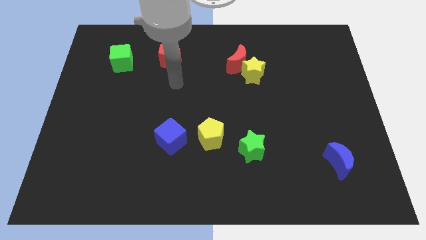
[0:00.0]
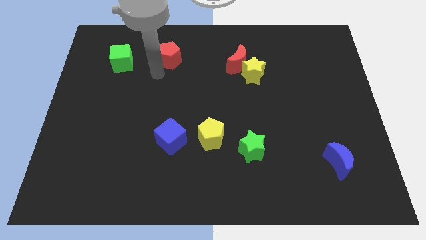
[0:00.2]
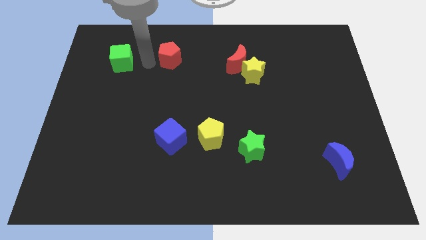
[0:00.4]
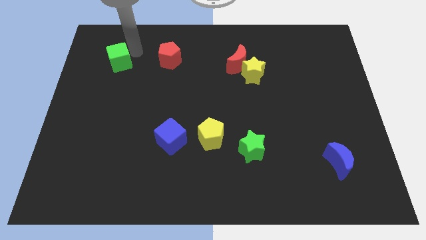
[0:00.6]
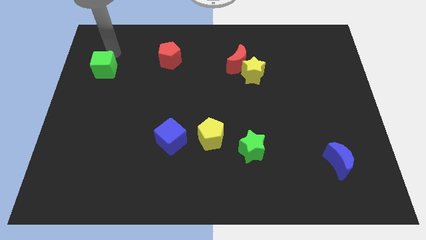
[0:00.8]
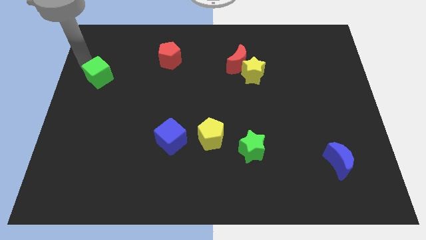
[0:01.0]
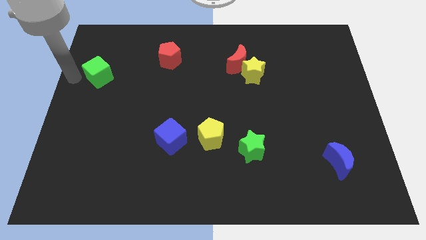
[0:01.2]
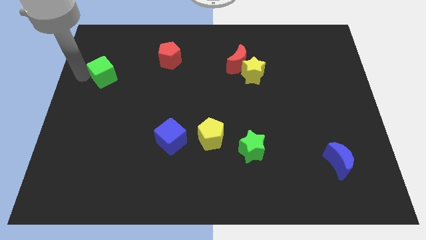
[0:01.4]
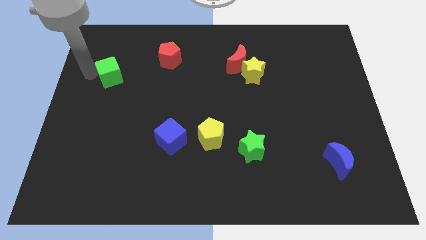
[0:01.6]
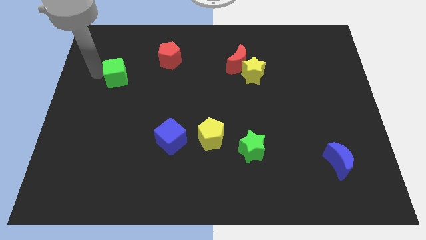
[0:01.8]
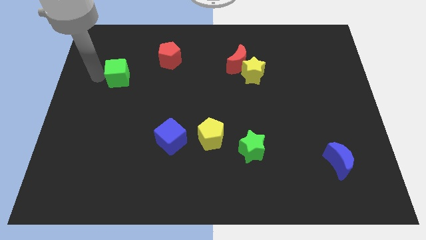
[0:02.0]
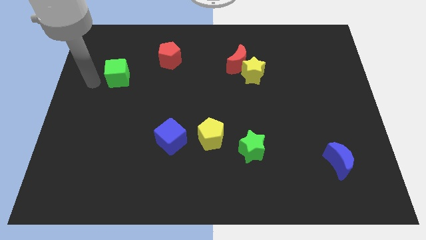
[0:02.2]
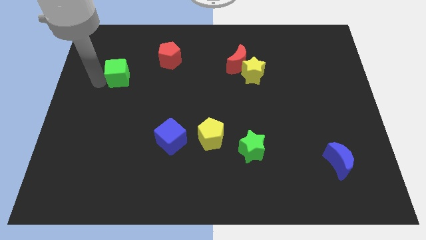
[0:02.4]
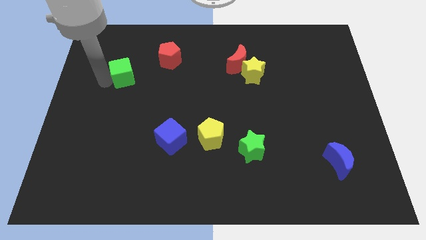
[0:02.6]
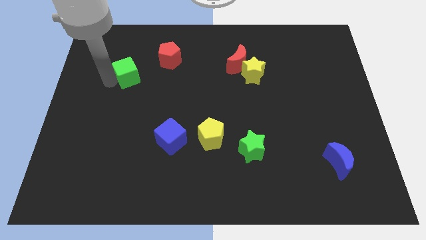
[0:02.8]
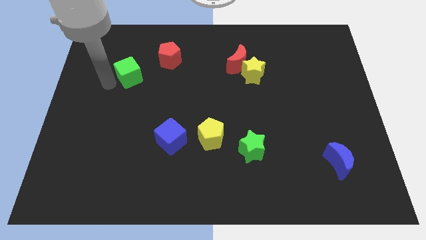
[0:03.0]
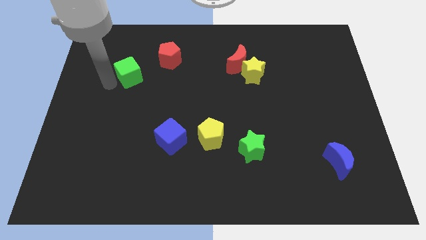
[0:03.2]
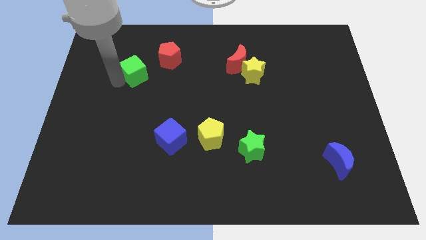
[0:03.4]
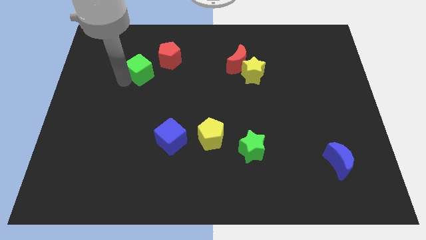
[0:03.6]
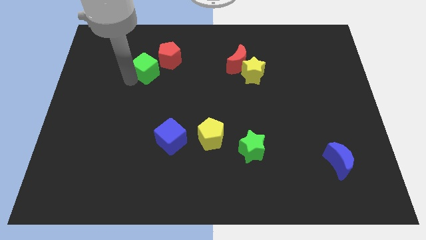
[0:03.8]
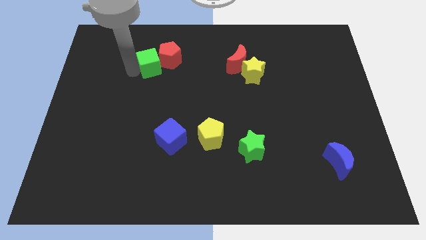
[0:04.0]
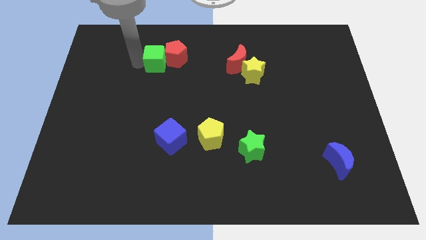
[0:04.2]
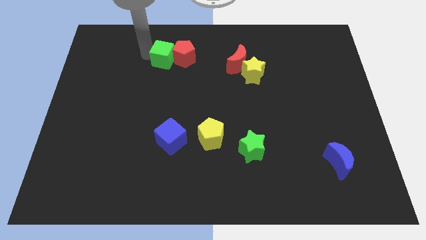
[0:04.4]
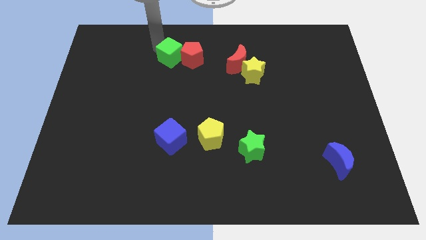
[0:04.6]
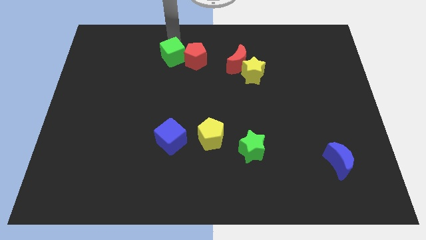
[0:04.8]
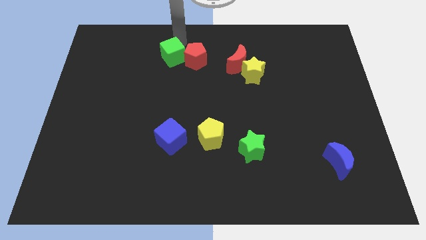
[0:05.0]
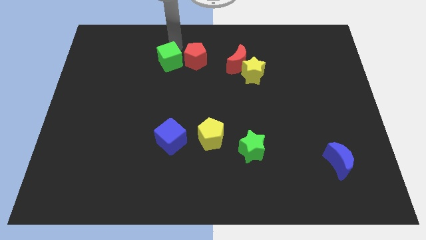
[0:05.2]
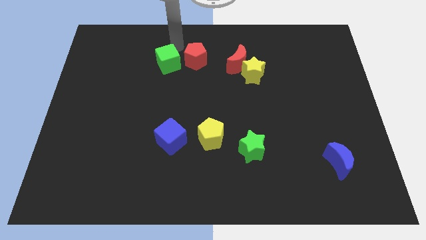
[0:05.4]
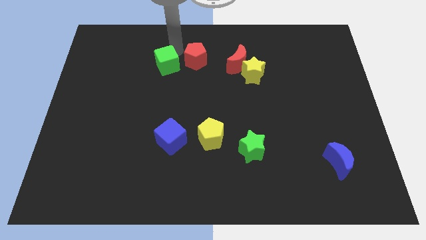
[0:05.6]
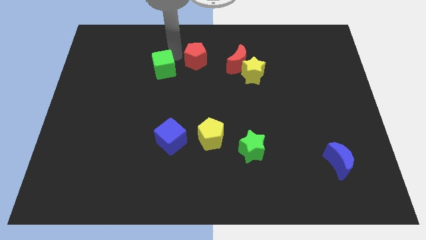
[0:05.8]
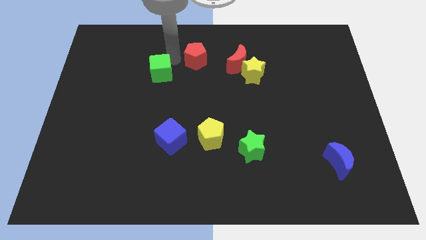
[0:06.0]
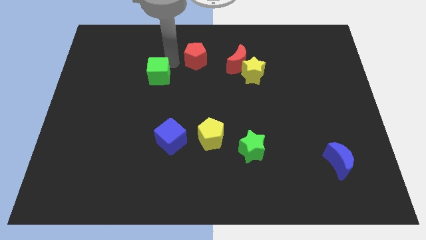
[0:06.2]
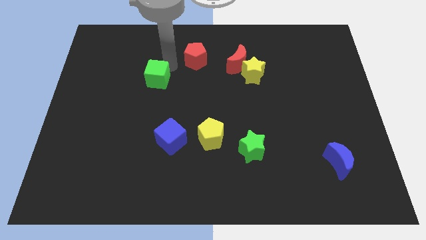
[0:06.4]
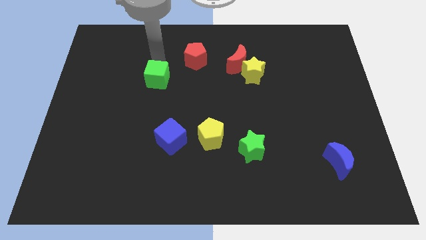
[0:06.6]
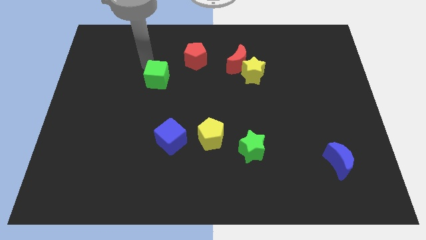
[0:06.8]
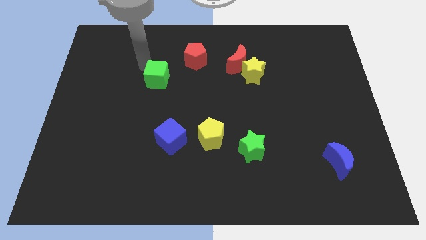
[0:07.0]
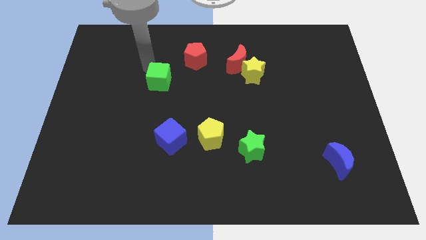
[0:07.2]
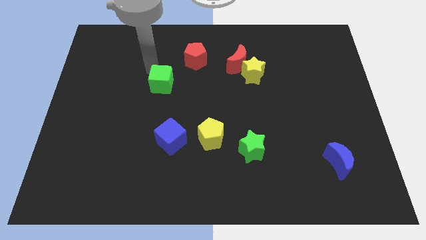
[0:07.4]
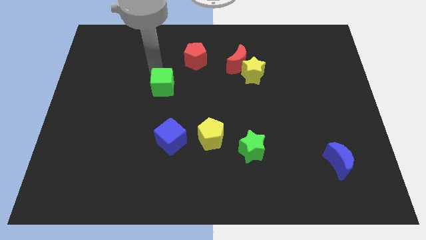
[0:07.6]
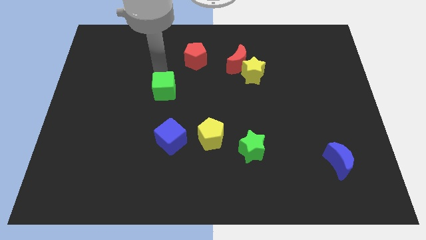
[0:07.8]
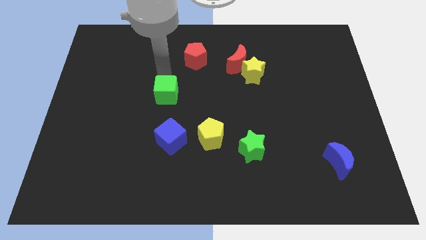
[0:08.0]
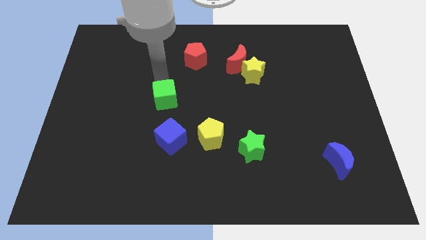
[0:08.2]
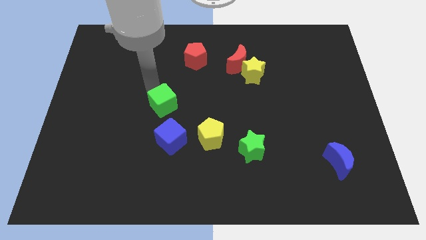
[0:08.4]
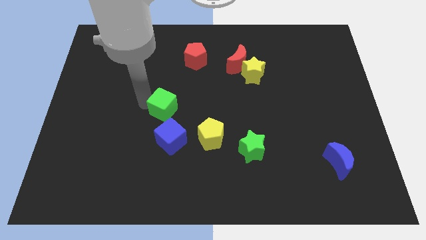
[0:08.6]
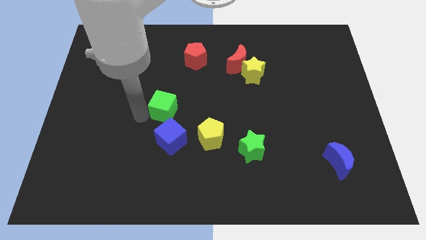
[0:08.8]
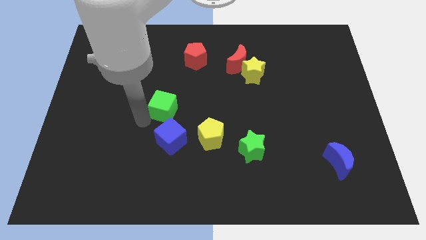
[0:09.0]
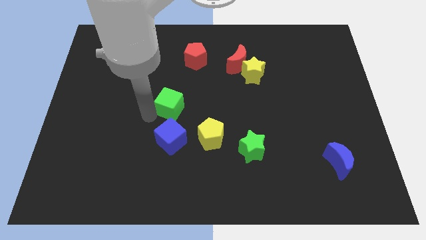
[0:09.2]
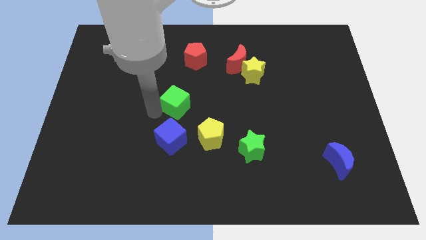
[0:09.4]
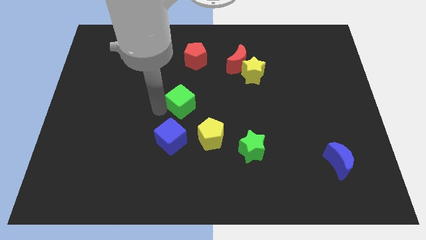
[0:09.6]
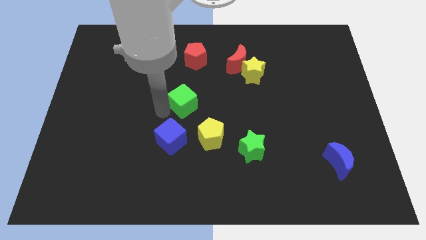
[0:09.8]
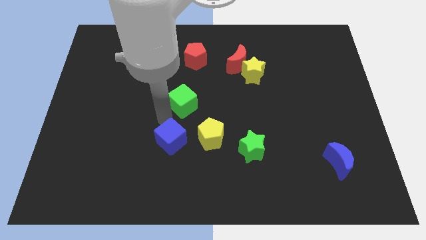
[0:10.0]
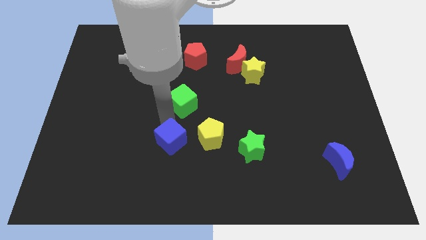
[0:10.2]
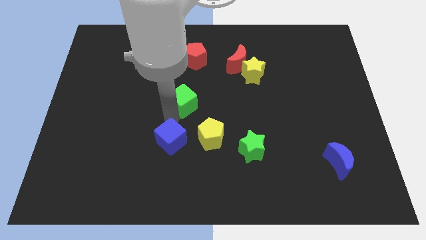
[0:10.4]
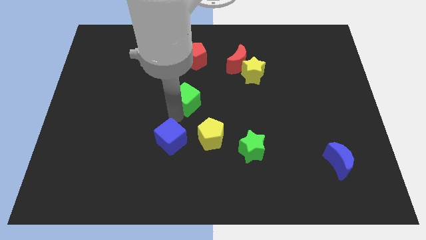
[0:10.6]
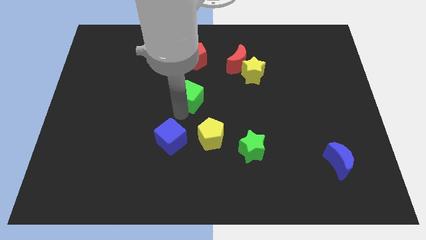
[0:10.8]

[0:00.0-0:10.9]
push the green cube to the top of the yellow pentagon

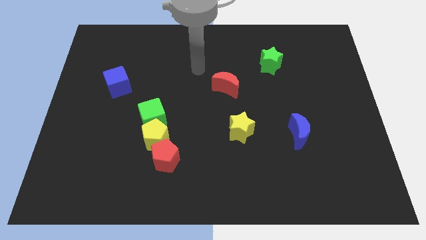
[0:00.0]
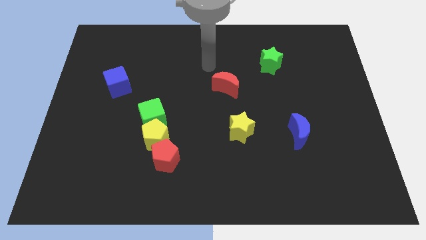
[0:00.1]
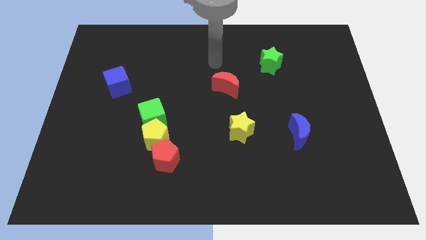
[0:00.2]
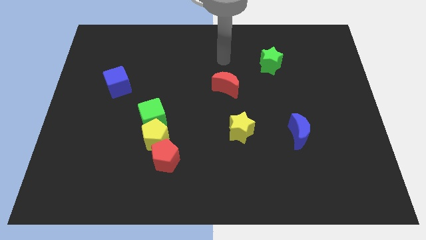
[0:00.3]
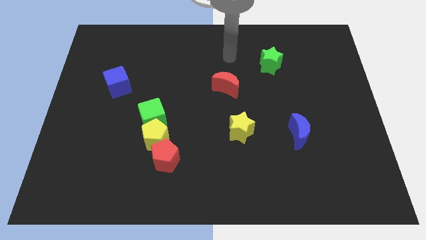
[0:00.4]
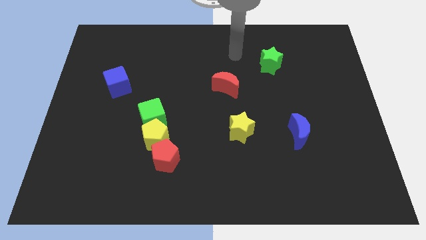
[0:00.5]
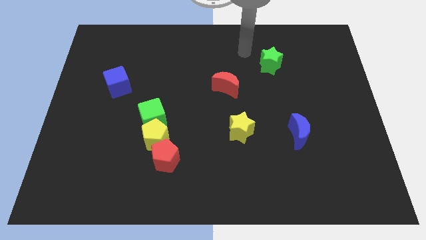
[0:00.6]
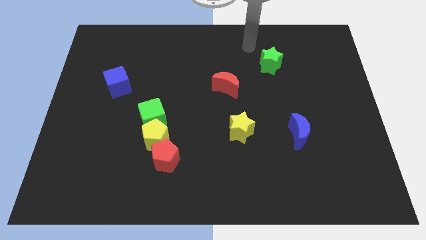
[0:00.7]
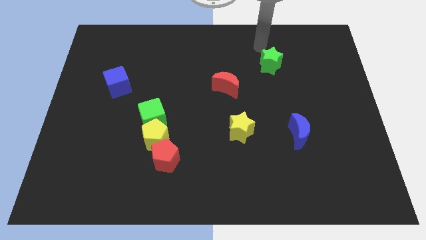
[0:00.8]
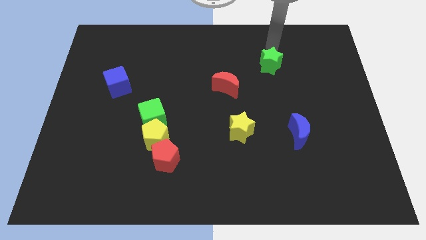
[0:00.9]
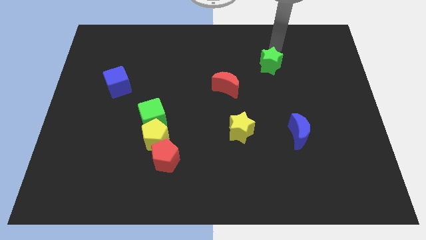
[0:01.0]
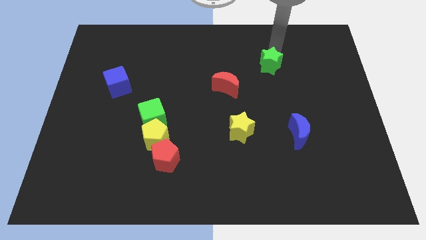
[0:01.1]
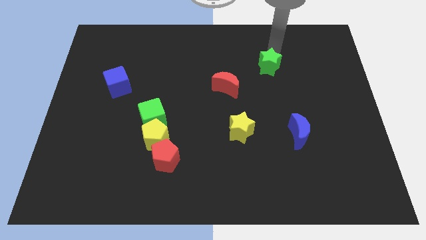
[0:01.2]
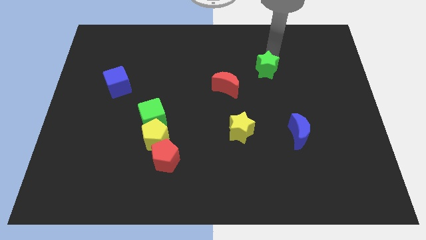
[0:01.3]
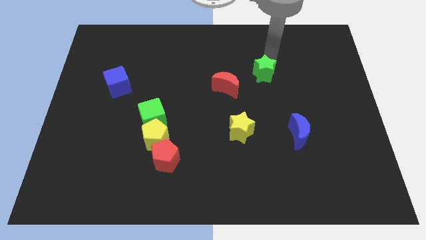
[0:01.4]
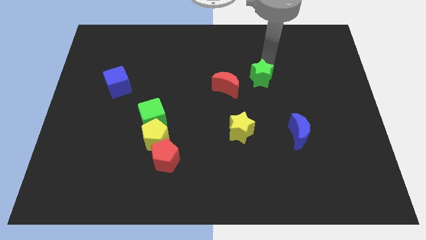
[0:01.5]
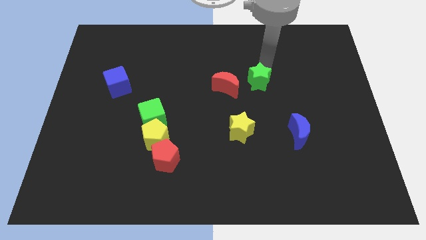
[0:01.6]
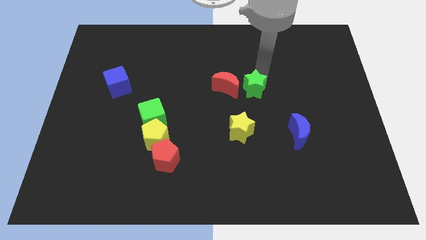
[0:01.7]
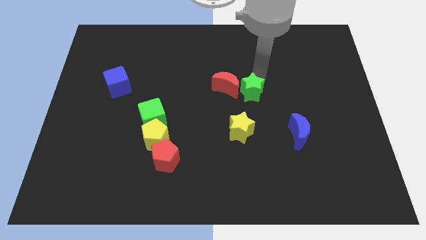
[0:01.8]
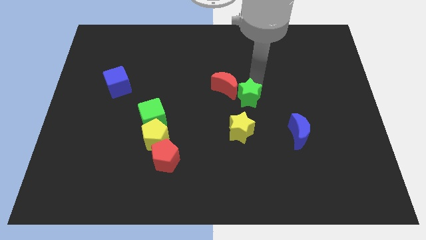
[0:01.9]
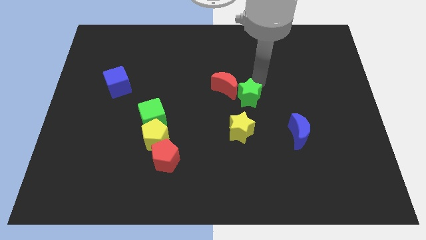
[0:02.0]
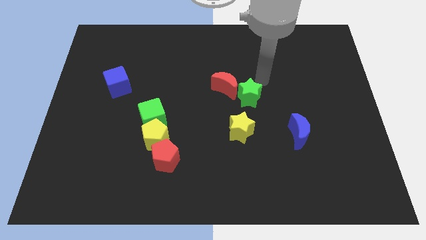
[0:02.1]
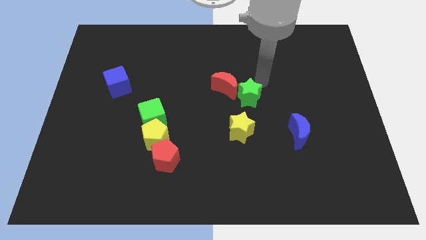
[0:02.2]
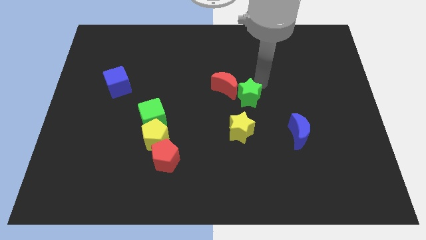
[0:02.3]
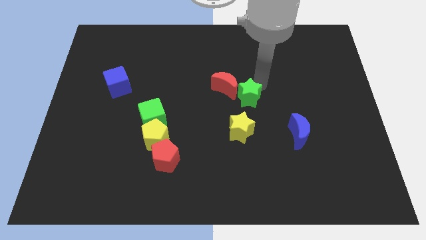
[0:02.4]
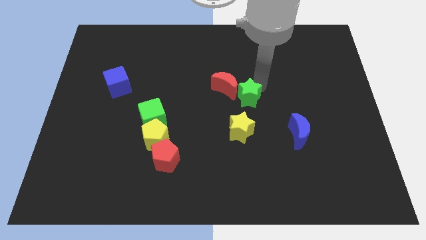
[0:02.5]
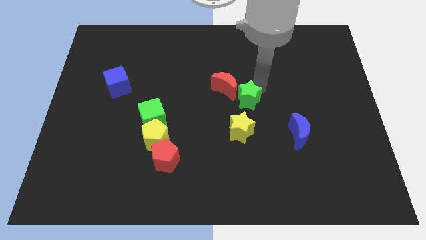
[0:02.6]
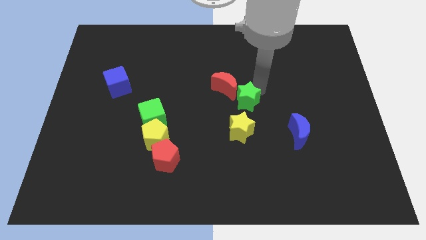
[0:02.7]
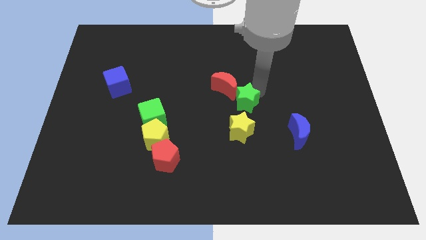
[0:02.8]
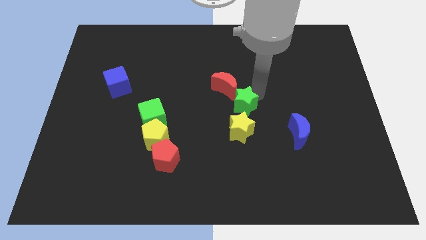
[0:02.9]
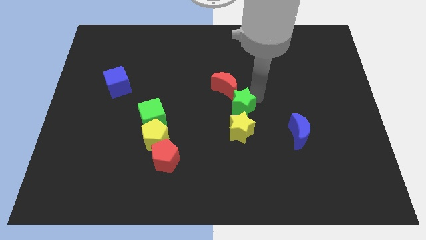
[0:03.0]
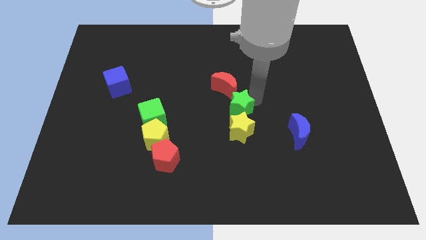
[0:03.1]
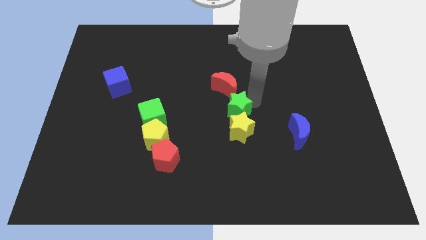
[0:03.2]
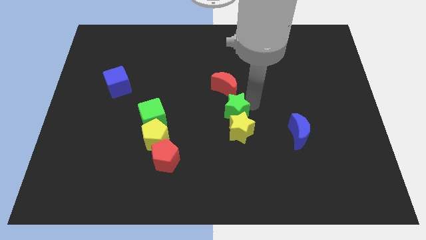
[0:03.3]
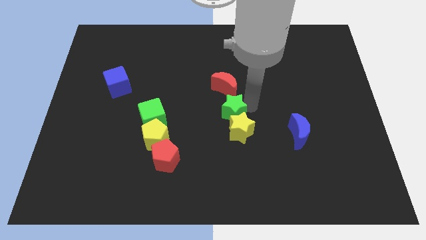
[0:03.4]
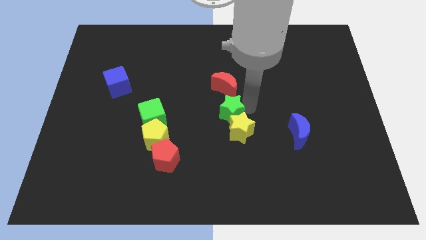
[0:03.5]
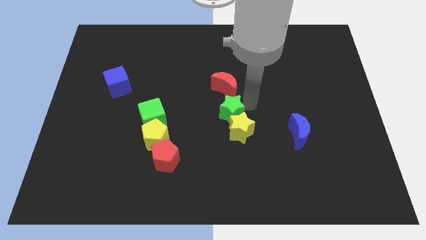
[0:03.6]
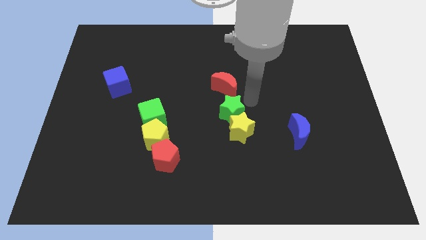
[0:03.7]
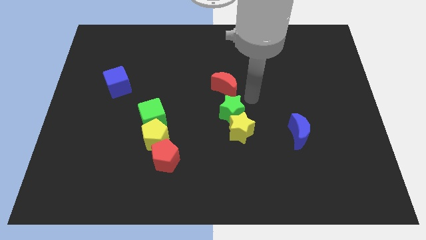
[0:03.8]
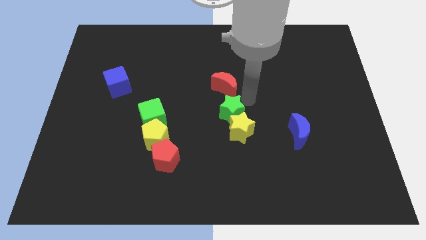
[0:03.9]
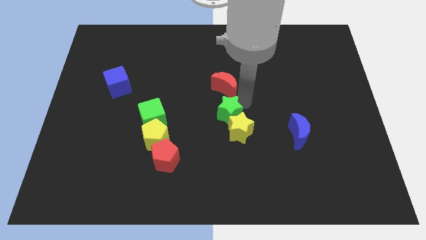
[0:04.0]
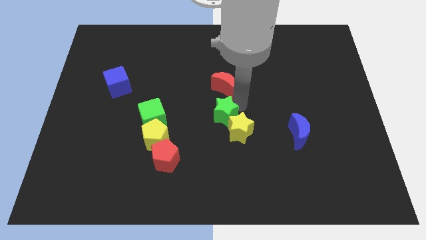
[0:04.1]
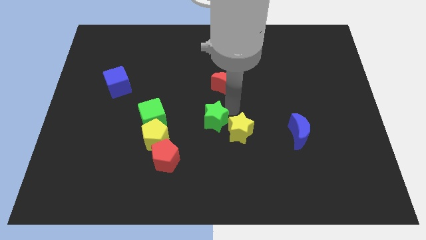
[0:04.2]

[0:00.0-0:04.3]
slide the green star left of the yellow star
